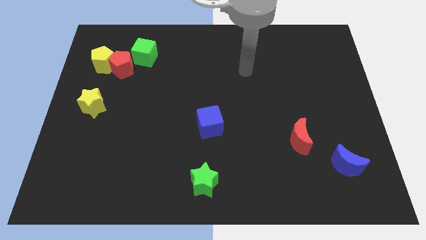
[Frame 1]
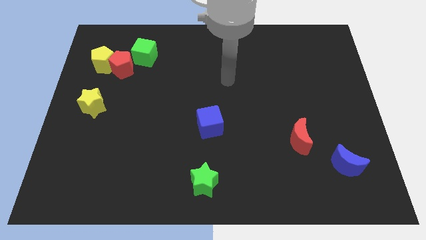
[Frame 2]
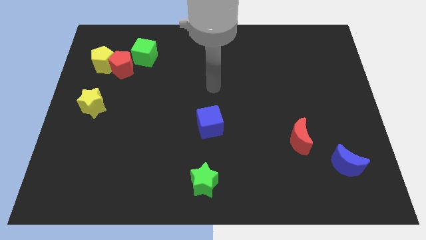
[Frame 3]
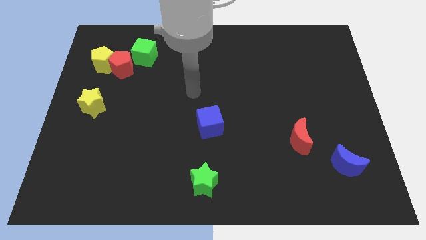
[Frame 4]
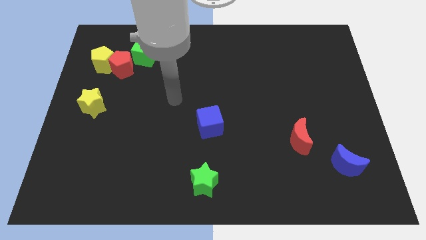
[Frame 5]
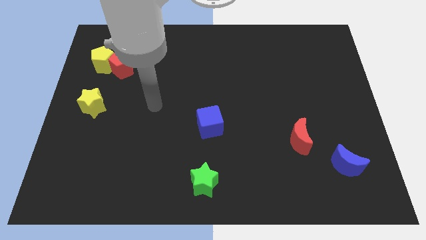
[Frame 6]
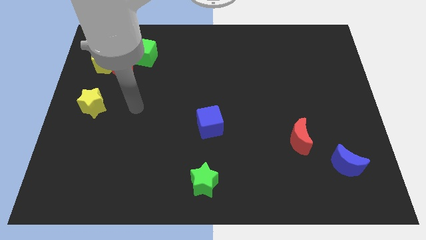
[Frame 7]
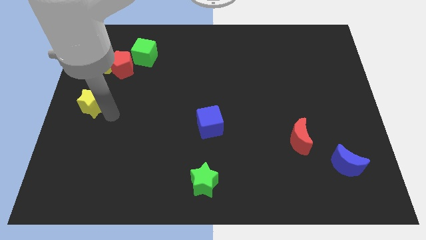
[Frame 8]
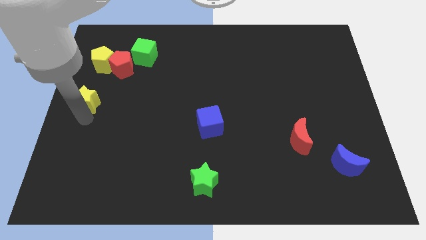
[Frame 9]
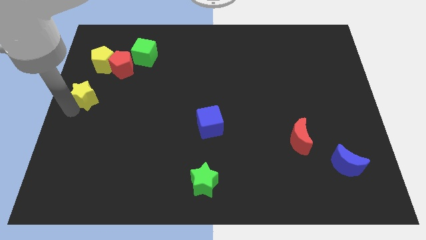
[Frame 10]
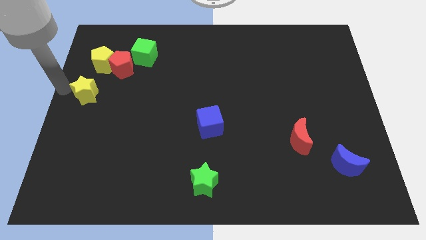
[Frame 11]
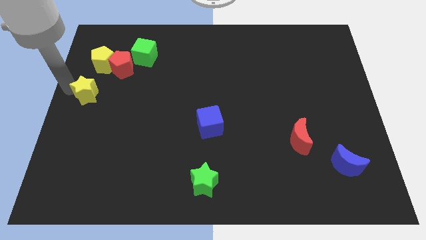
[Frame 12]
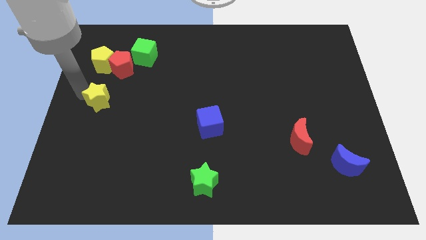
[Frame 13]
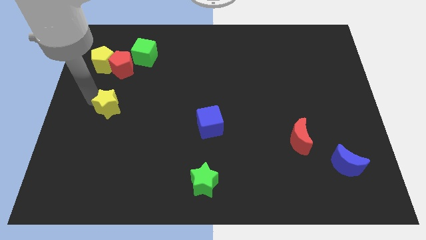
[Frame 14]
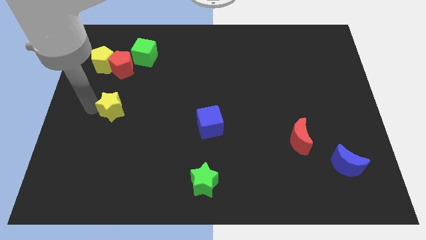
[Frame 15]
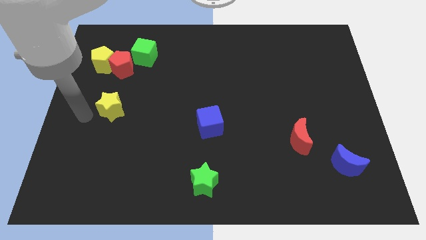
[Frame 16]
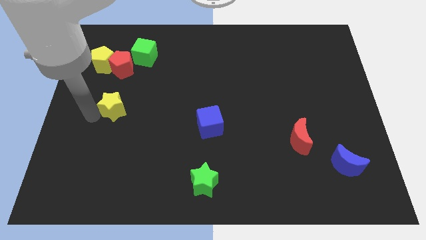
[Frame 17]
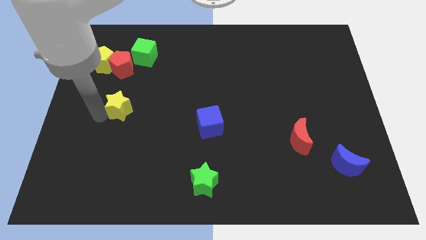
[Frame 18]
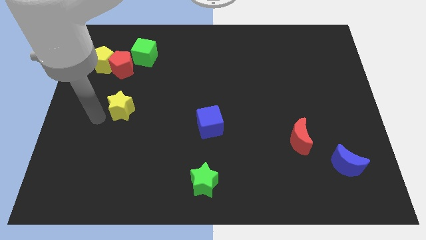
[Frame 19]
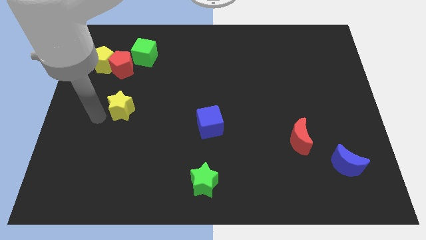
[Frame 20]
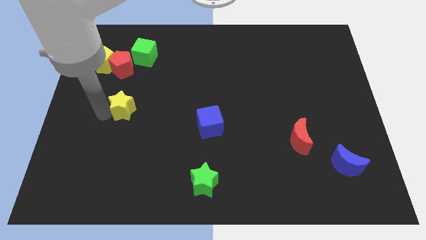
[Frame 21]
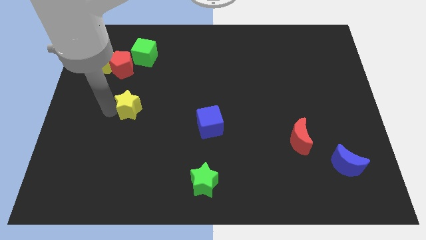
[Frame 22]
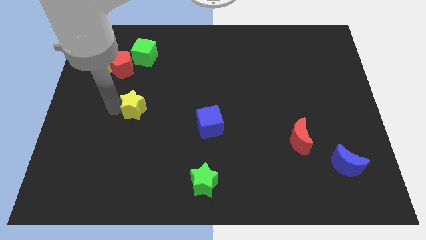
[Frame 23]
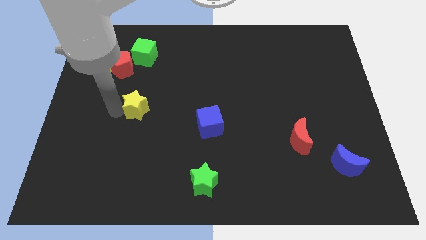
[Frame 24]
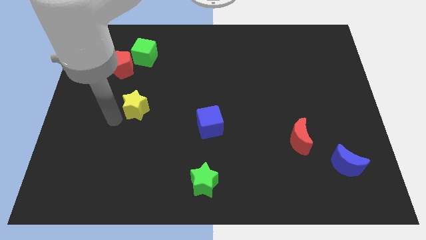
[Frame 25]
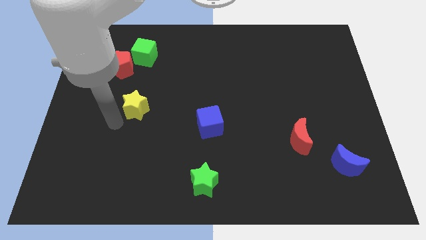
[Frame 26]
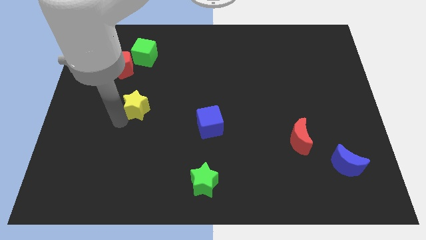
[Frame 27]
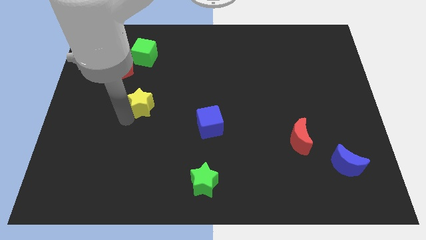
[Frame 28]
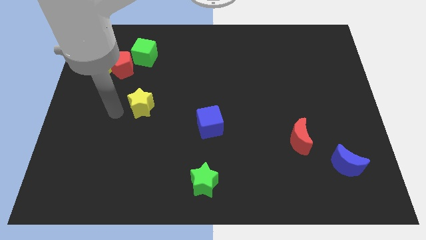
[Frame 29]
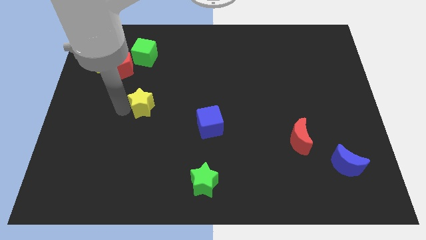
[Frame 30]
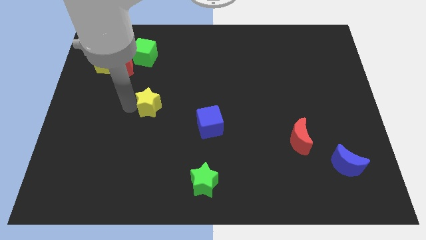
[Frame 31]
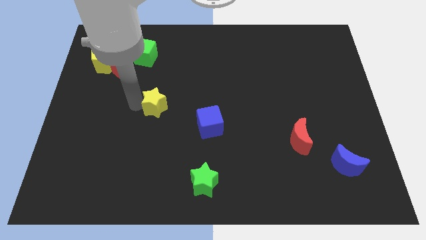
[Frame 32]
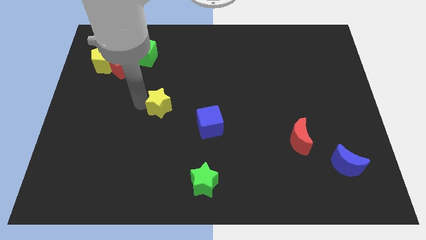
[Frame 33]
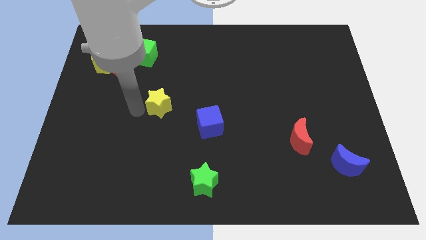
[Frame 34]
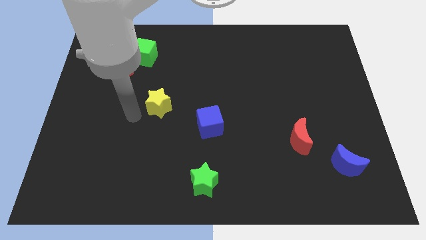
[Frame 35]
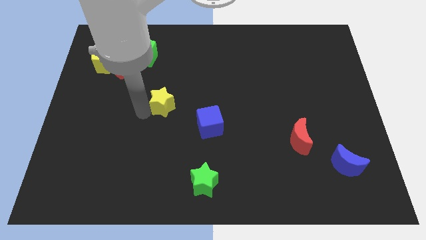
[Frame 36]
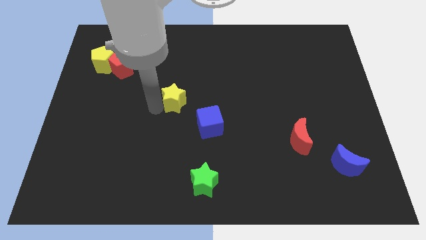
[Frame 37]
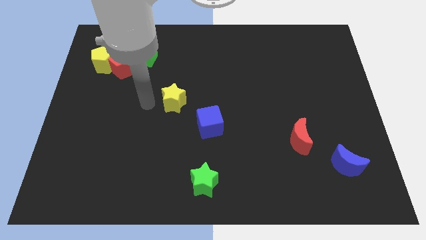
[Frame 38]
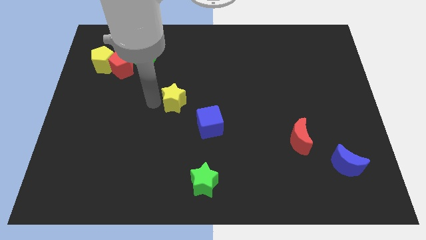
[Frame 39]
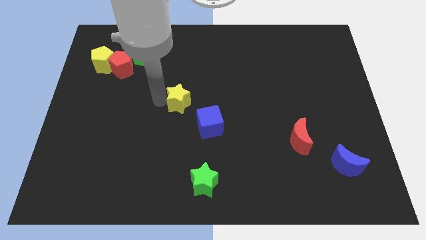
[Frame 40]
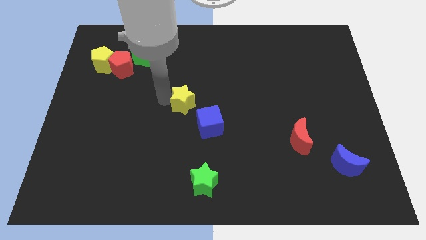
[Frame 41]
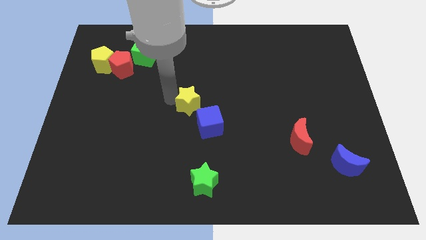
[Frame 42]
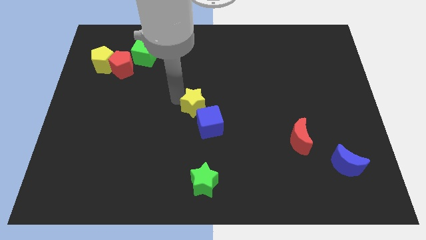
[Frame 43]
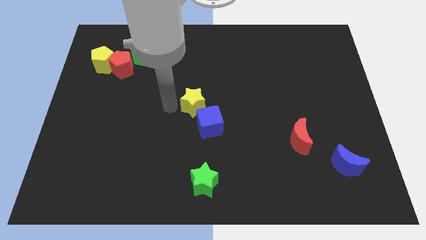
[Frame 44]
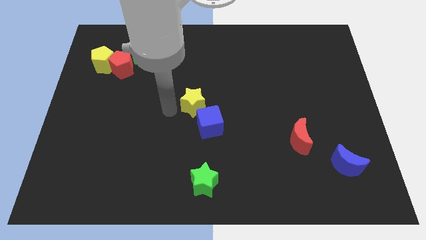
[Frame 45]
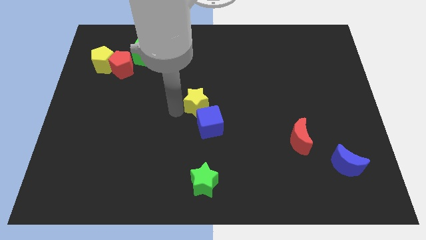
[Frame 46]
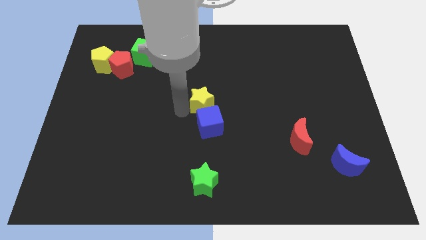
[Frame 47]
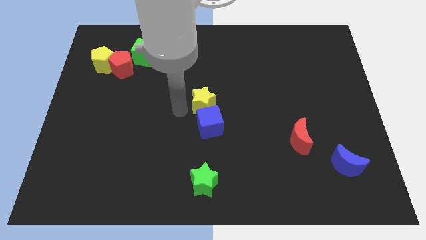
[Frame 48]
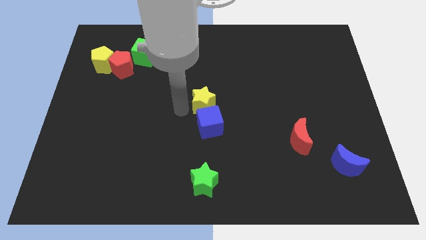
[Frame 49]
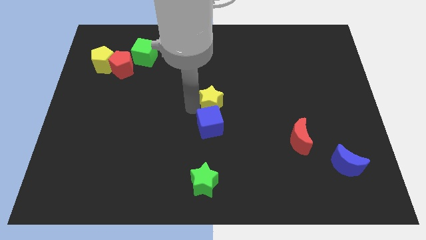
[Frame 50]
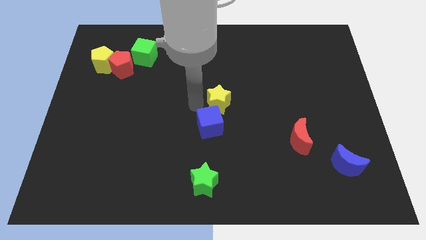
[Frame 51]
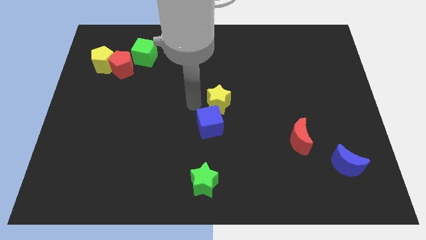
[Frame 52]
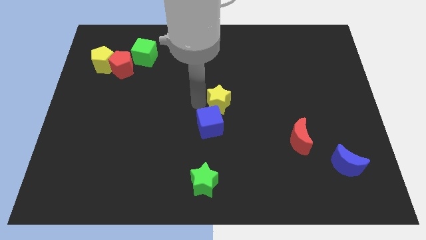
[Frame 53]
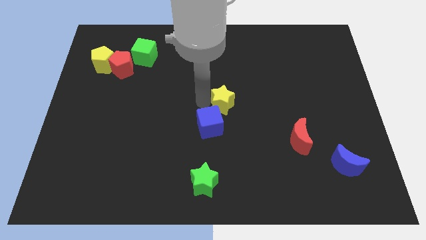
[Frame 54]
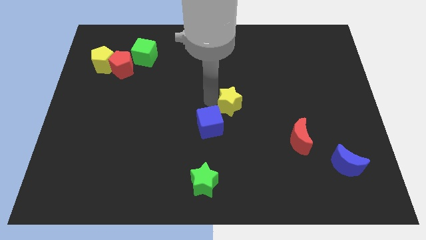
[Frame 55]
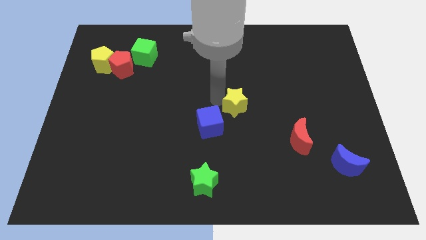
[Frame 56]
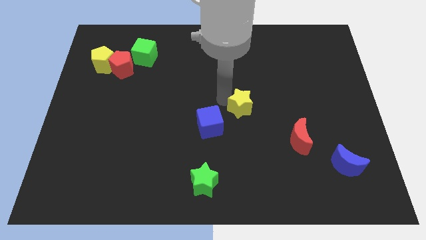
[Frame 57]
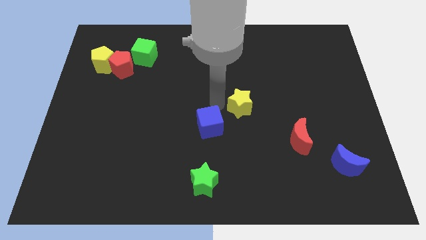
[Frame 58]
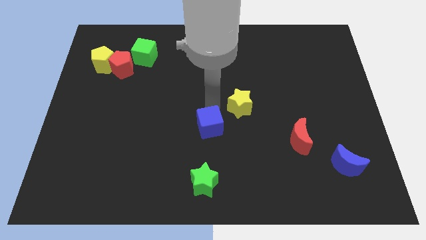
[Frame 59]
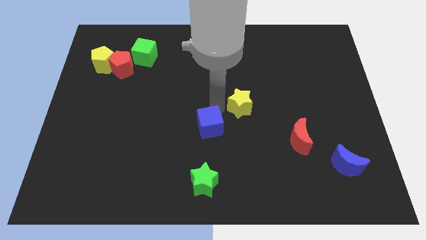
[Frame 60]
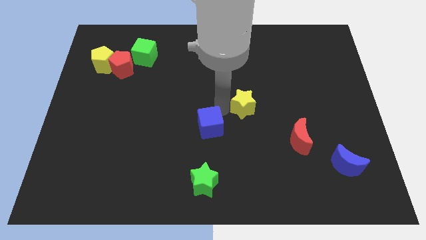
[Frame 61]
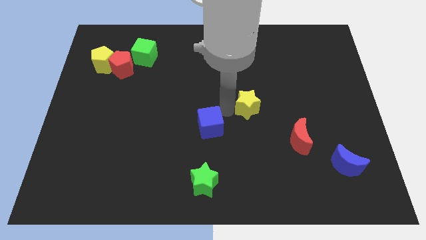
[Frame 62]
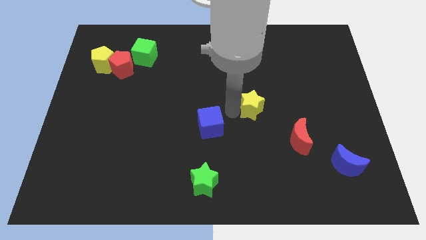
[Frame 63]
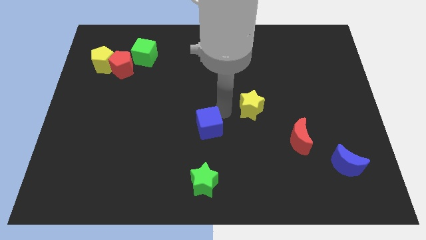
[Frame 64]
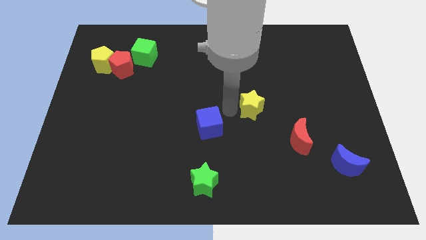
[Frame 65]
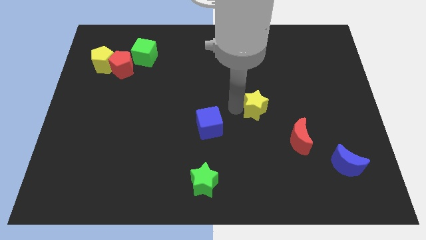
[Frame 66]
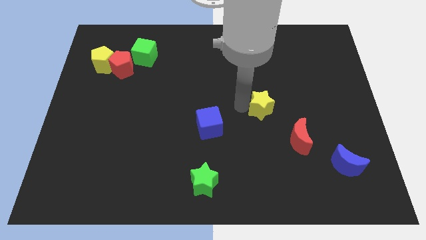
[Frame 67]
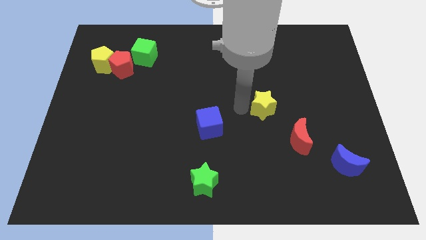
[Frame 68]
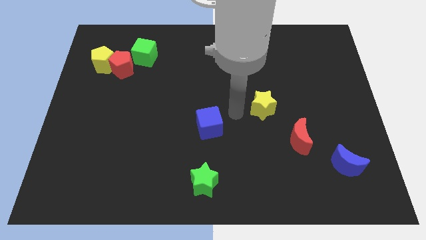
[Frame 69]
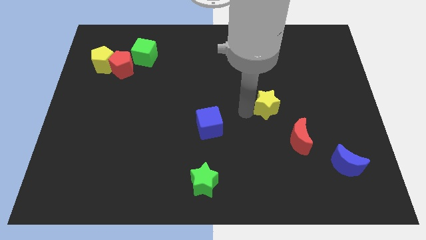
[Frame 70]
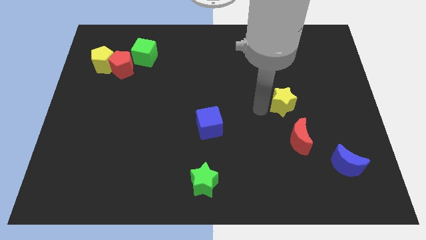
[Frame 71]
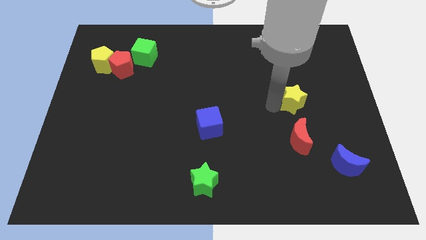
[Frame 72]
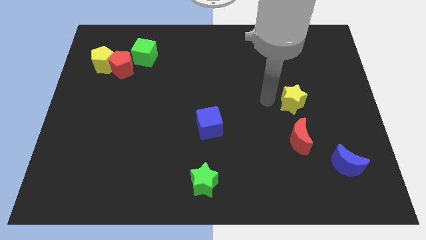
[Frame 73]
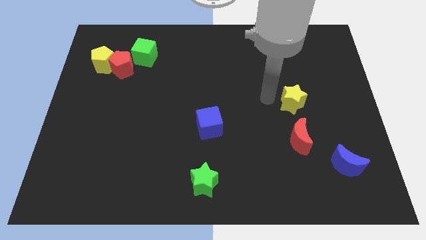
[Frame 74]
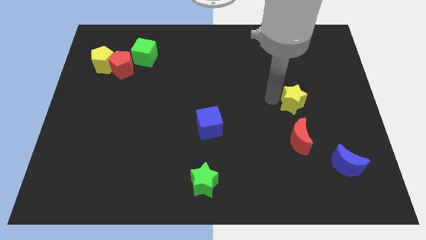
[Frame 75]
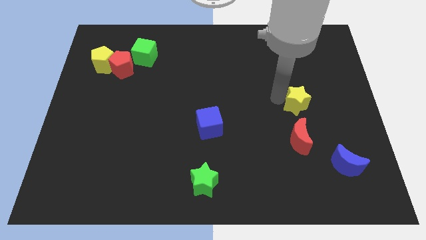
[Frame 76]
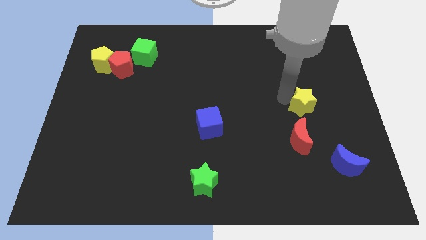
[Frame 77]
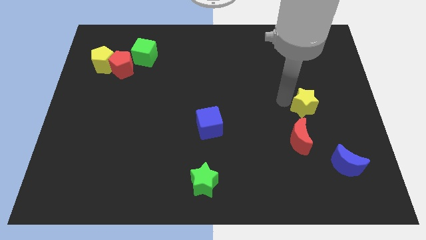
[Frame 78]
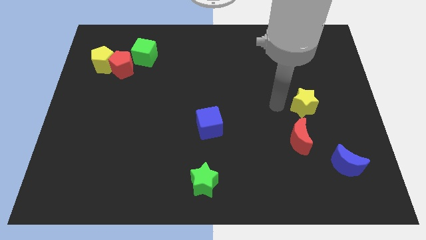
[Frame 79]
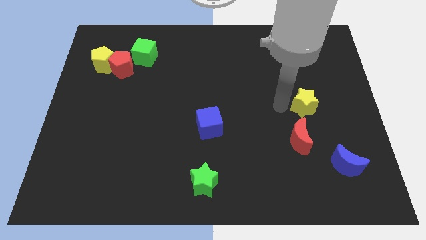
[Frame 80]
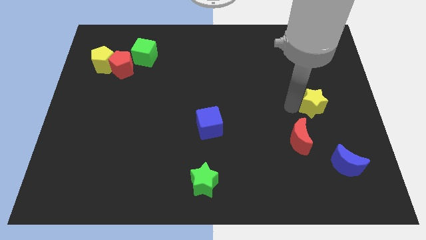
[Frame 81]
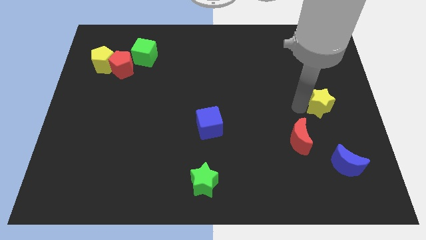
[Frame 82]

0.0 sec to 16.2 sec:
slide the yellow star to the center right
